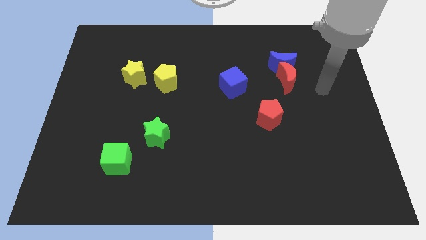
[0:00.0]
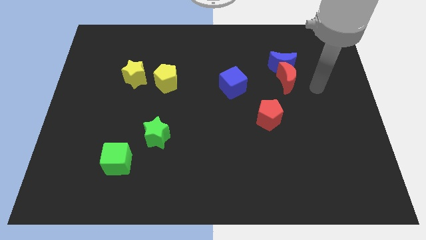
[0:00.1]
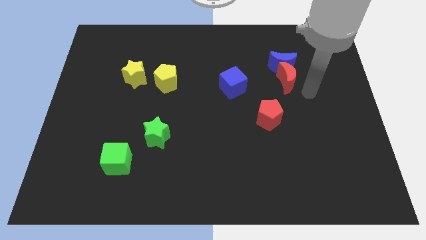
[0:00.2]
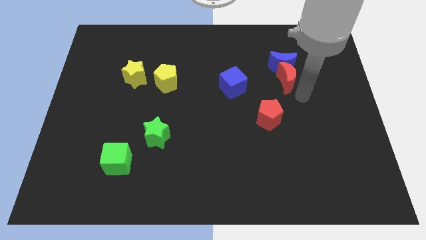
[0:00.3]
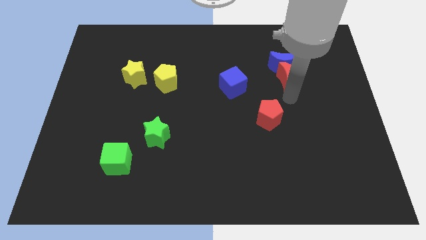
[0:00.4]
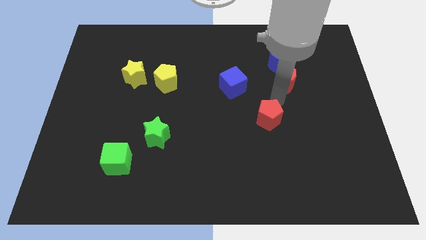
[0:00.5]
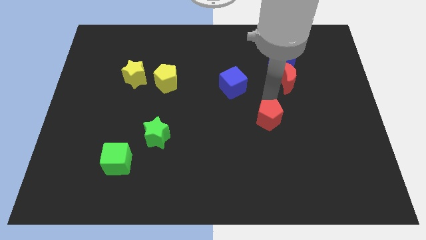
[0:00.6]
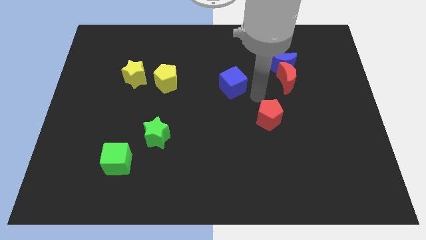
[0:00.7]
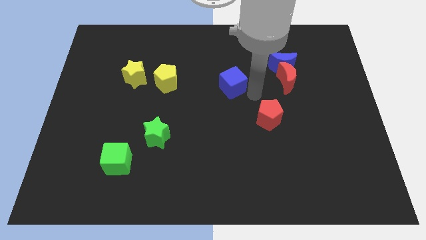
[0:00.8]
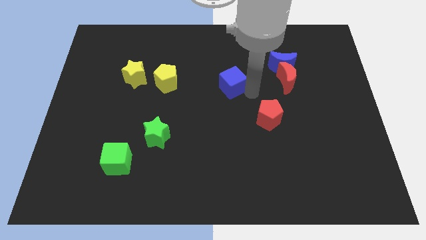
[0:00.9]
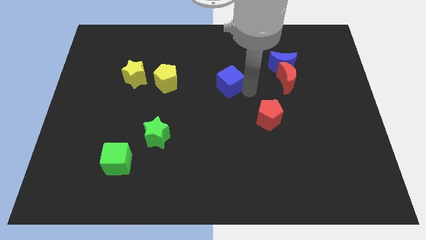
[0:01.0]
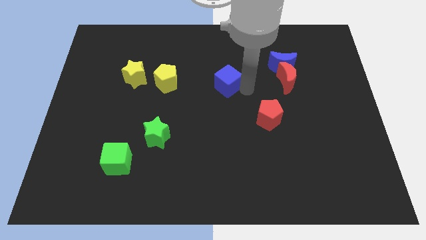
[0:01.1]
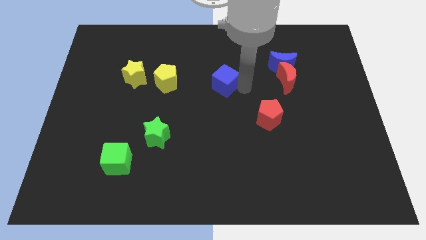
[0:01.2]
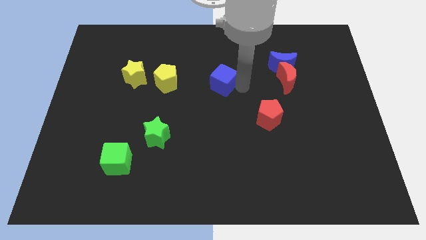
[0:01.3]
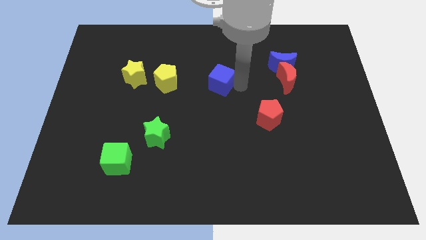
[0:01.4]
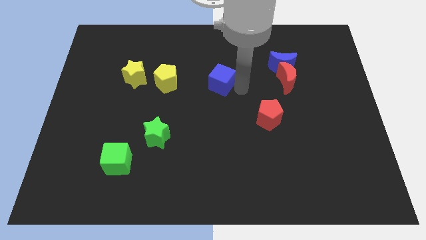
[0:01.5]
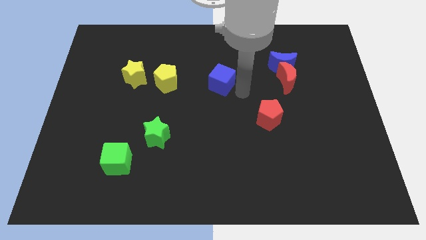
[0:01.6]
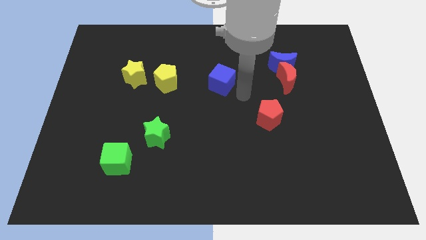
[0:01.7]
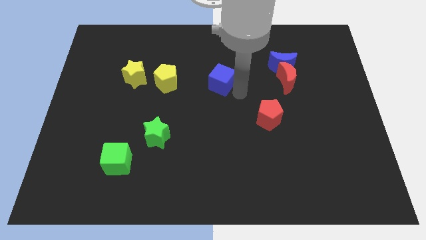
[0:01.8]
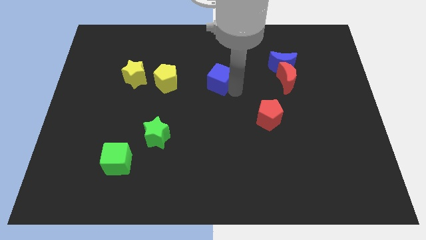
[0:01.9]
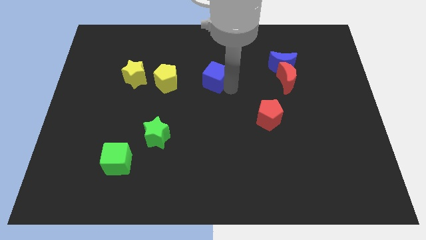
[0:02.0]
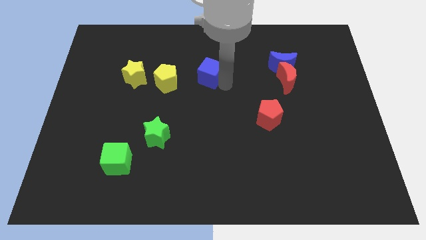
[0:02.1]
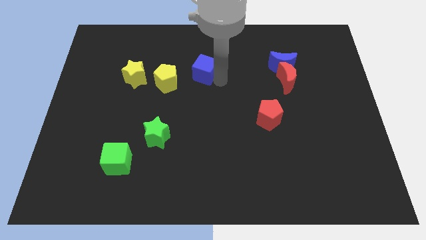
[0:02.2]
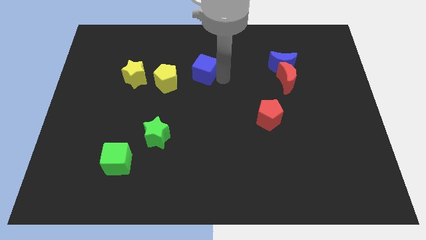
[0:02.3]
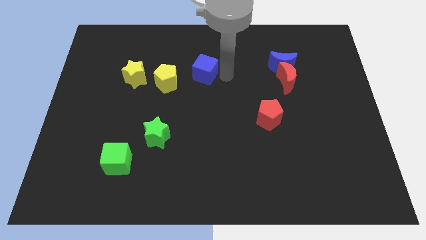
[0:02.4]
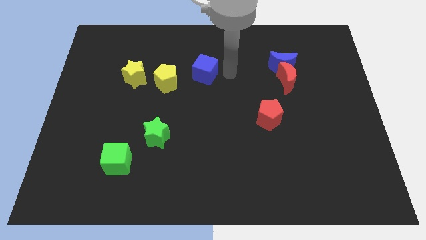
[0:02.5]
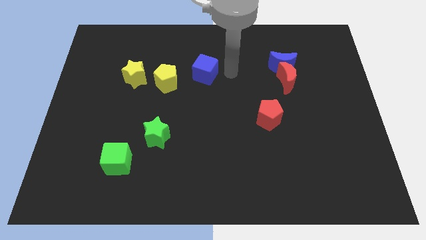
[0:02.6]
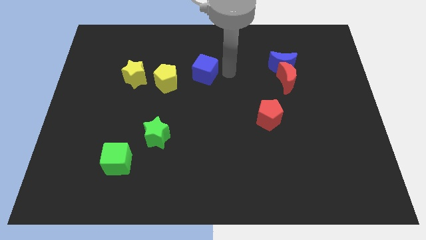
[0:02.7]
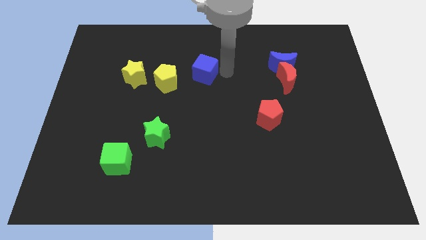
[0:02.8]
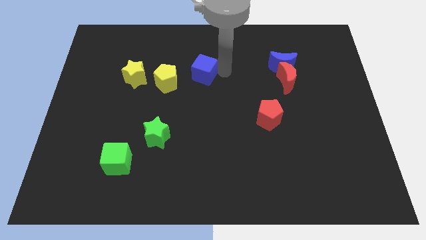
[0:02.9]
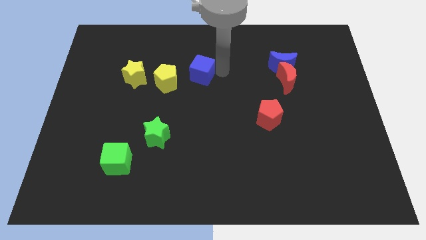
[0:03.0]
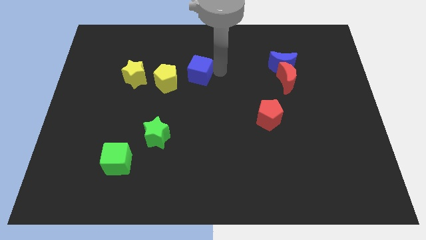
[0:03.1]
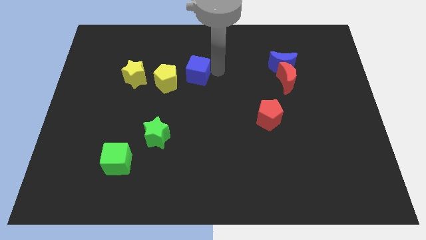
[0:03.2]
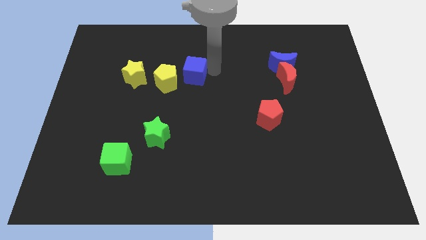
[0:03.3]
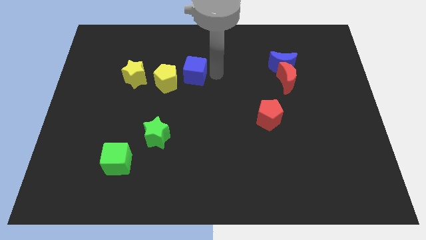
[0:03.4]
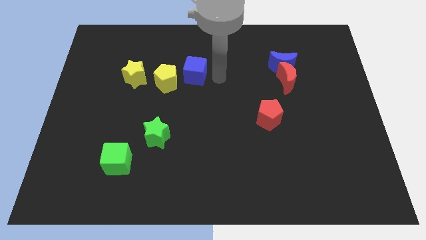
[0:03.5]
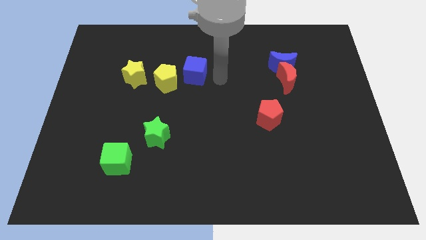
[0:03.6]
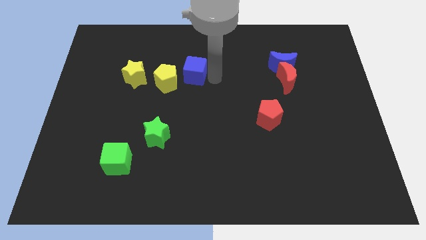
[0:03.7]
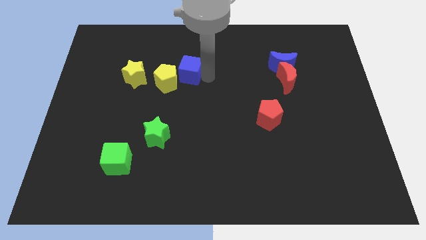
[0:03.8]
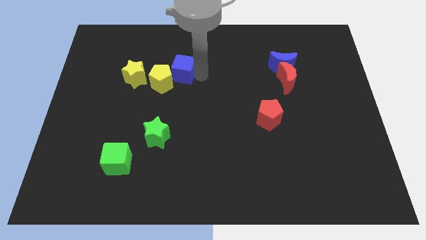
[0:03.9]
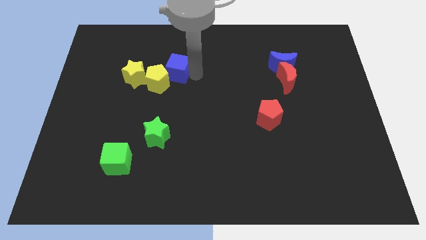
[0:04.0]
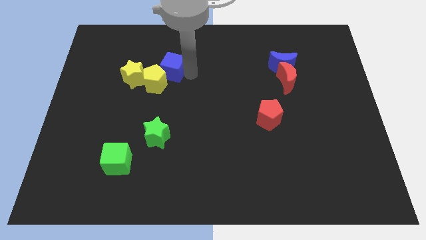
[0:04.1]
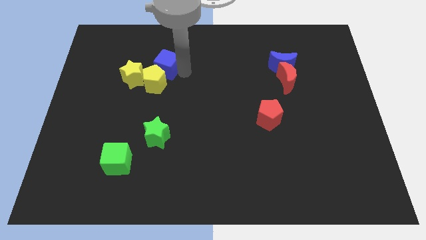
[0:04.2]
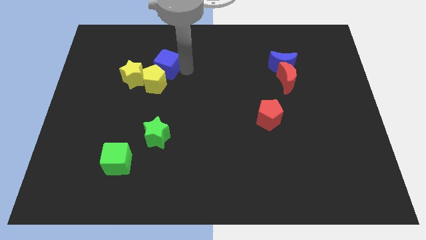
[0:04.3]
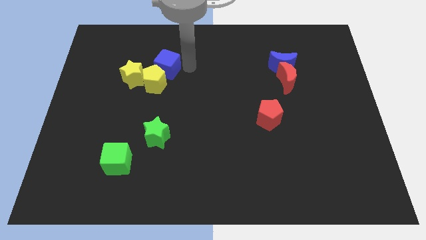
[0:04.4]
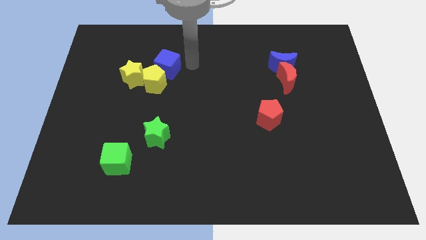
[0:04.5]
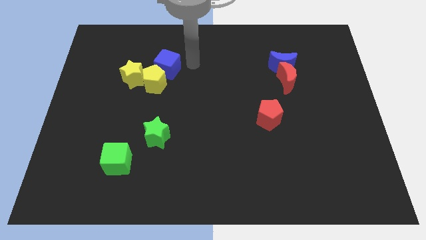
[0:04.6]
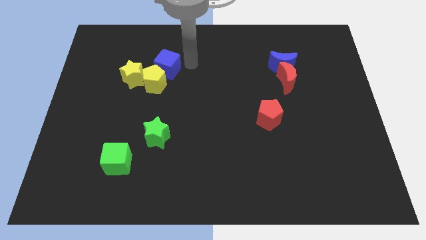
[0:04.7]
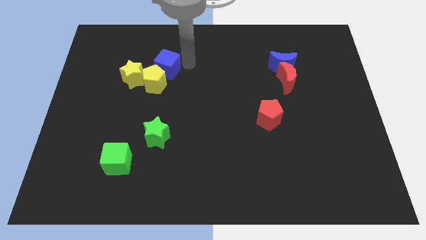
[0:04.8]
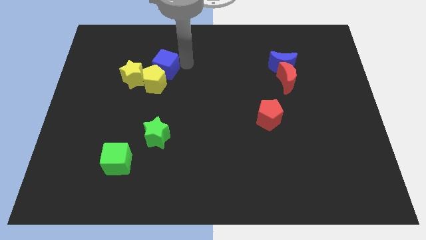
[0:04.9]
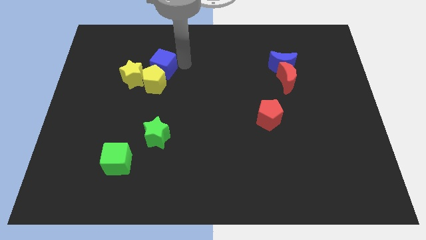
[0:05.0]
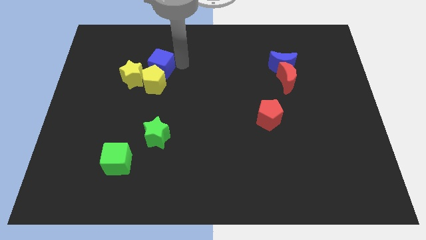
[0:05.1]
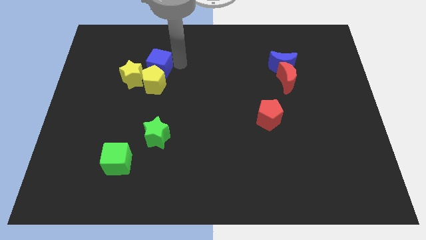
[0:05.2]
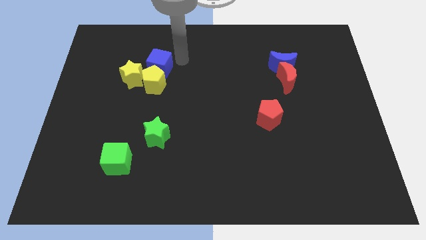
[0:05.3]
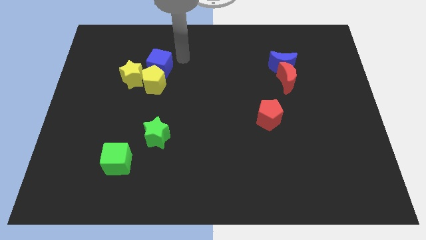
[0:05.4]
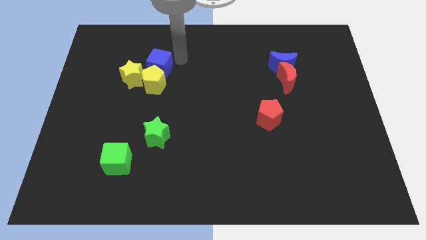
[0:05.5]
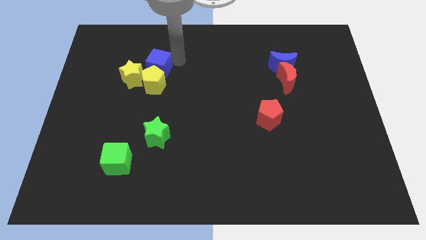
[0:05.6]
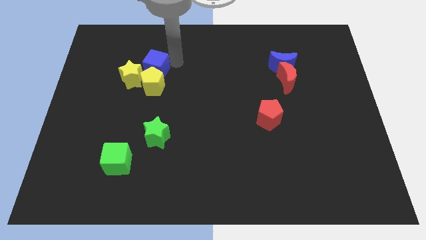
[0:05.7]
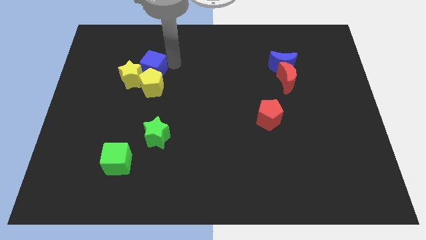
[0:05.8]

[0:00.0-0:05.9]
slide the blue cube close to the yellow star
